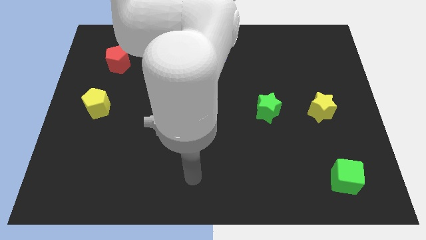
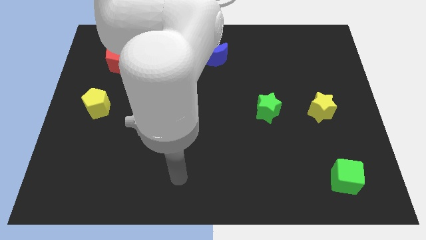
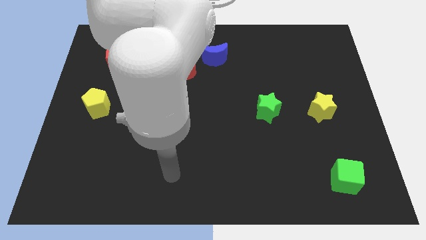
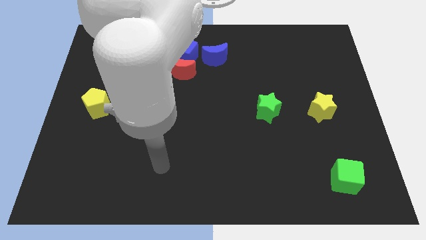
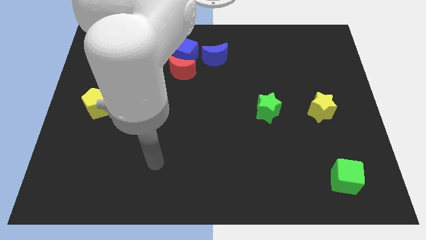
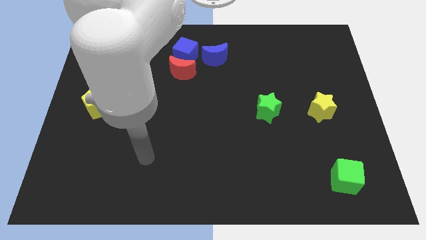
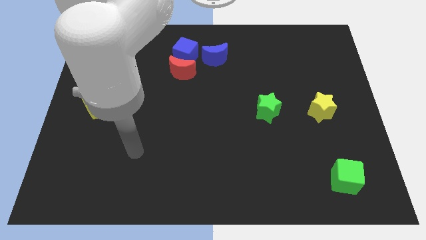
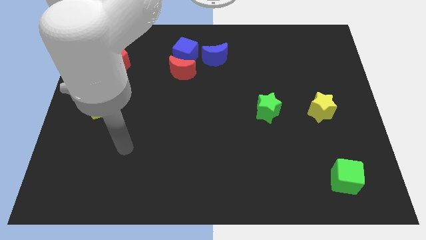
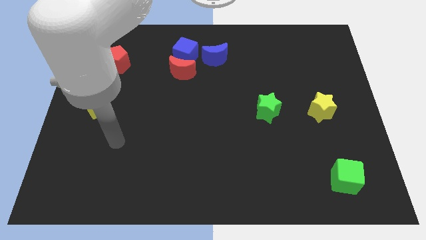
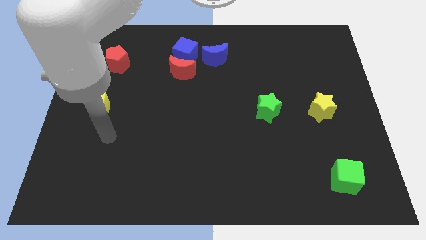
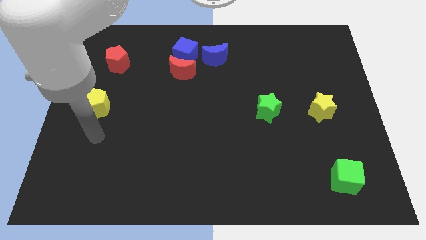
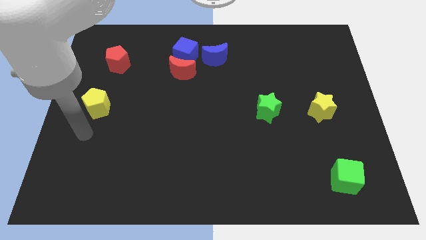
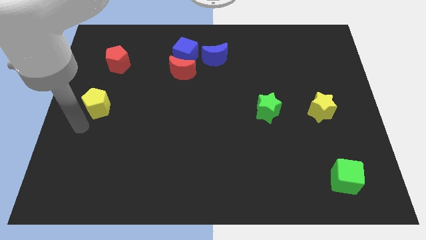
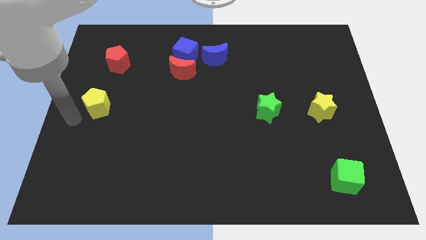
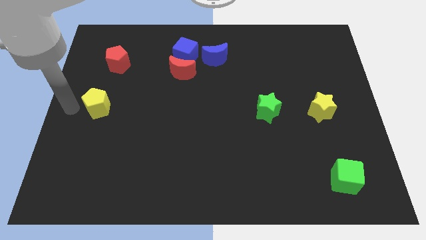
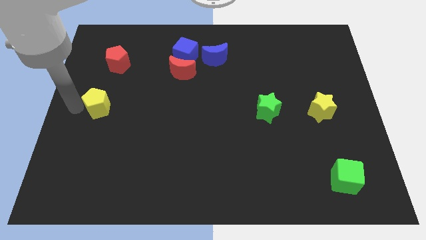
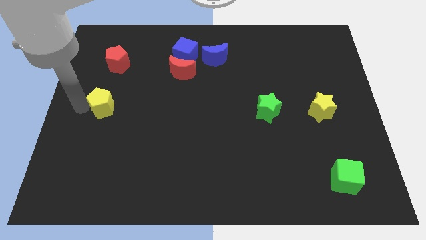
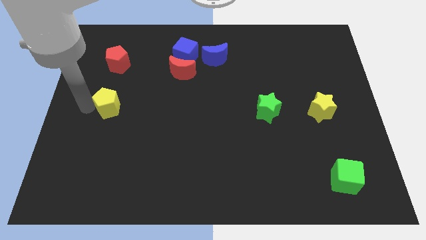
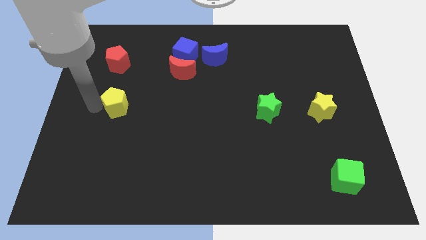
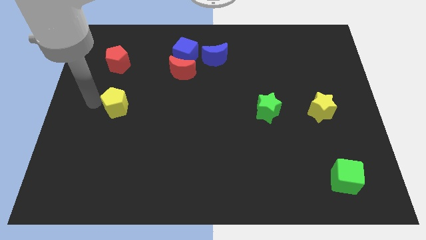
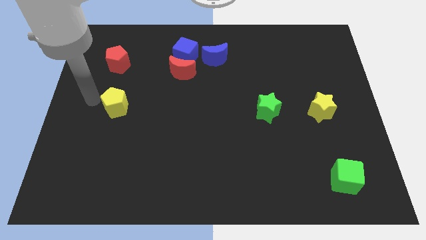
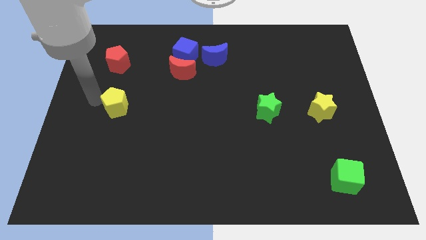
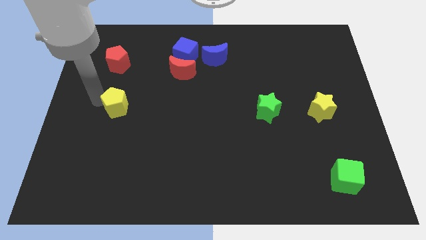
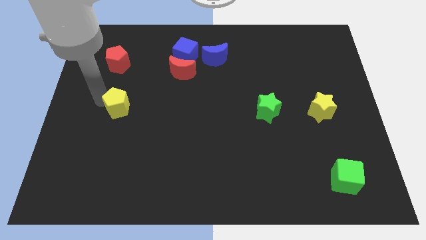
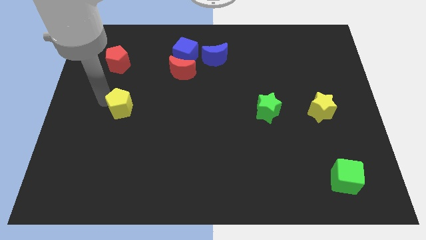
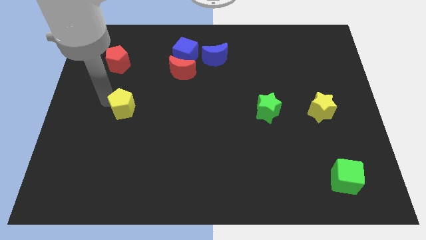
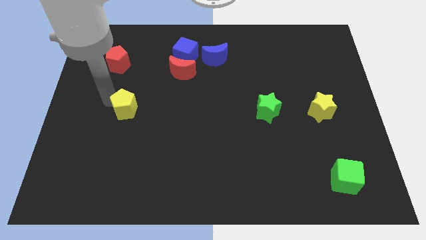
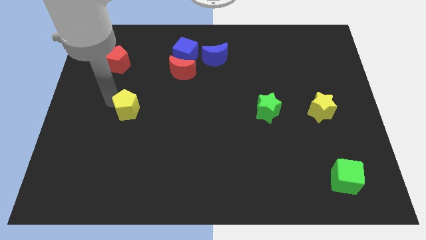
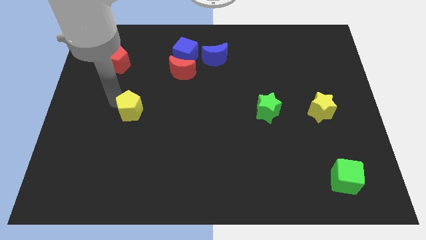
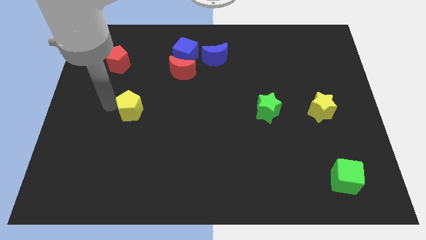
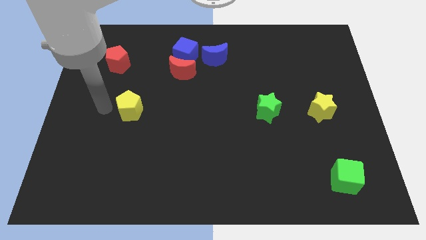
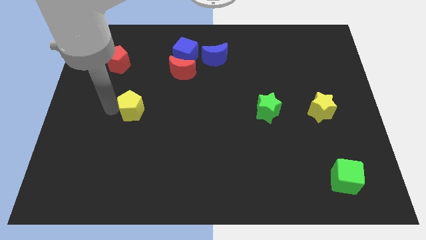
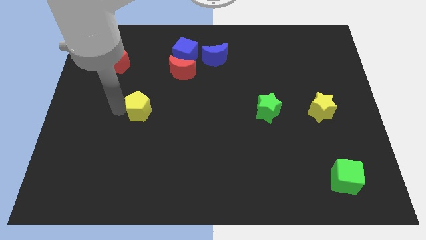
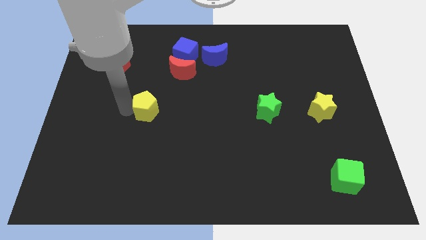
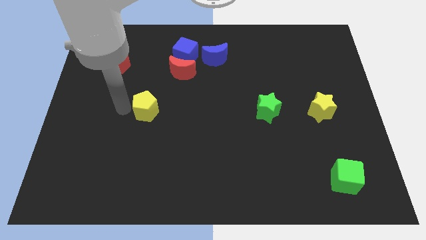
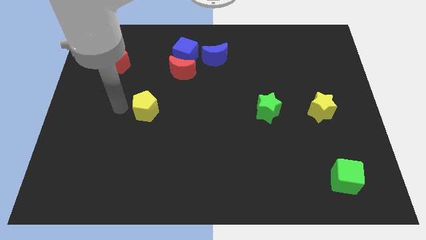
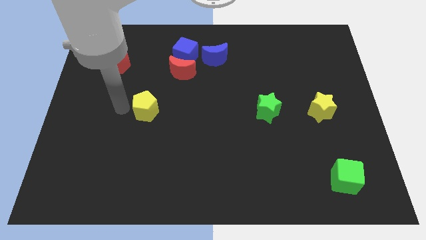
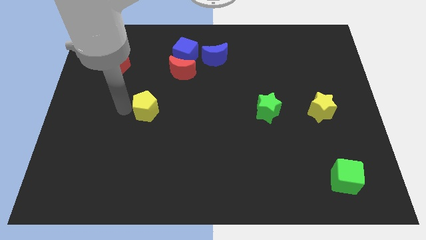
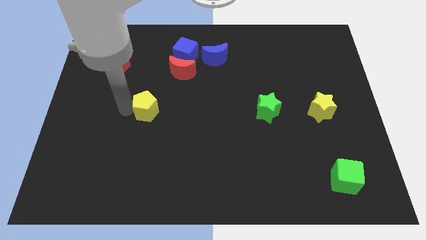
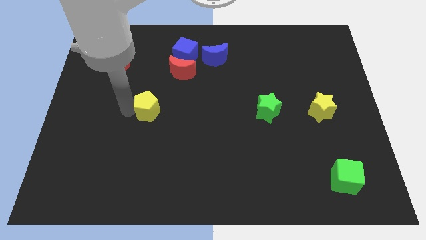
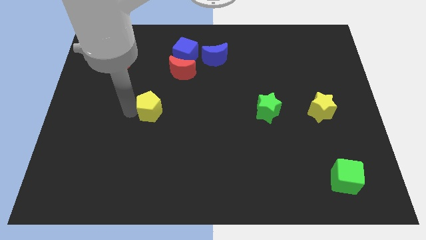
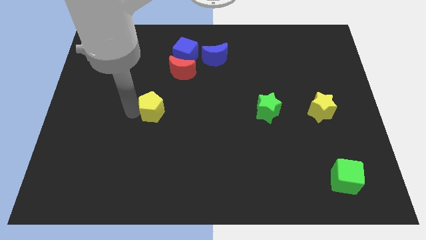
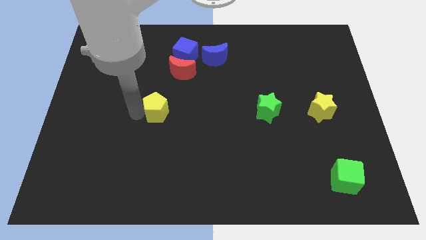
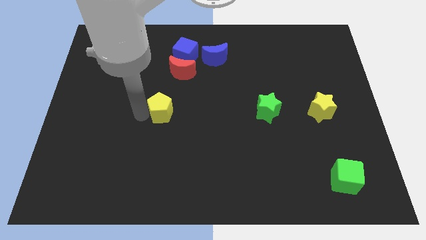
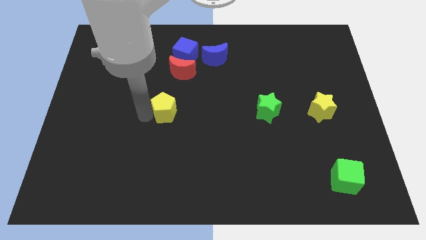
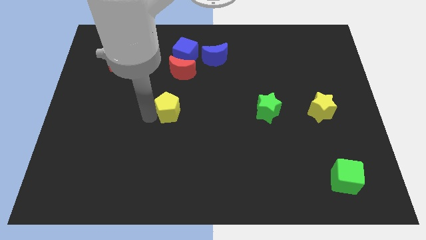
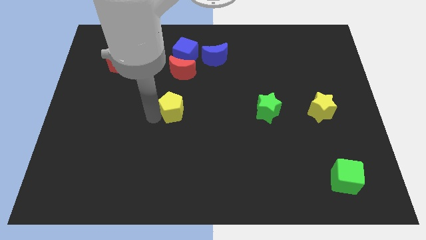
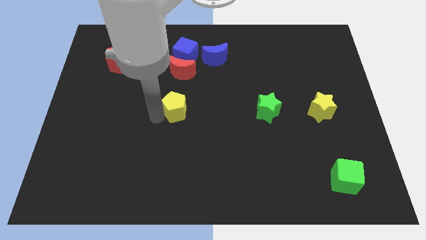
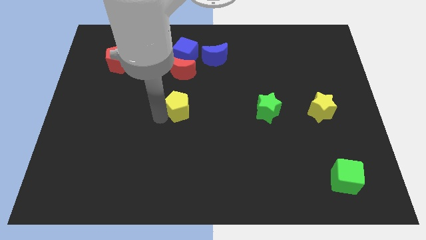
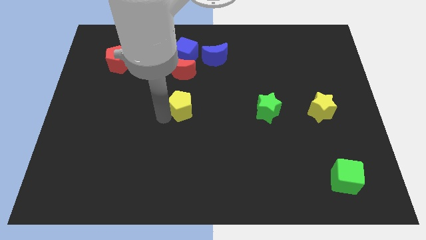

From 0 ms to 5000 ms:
slide the yellow pentagon to the right

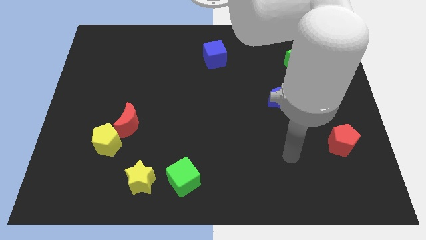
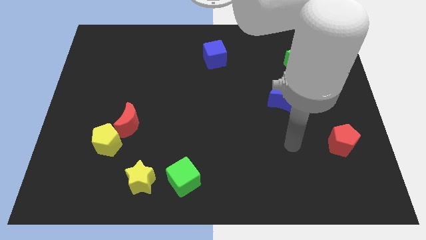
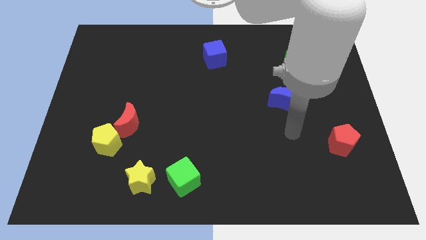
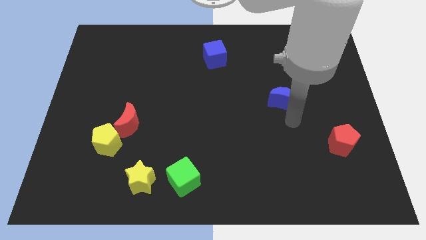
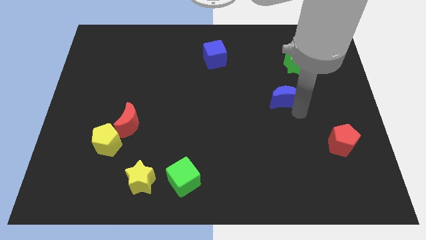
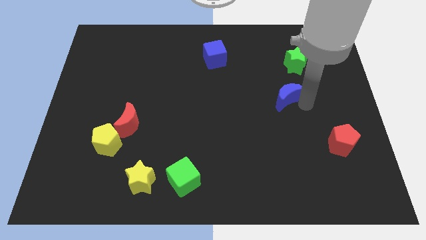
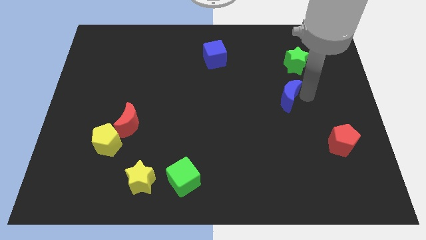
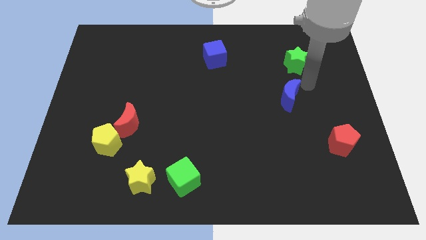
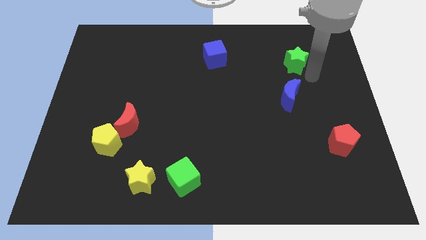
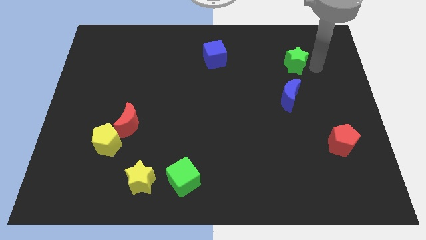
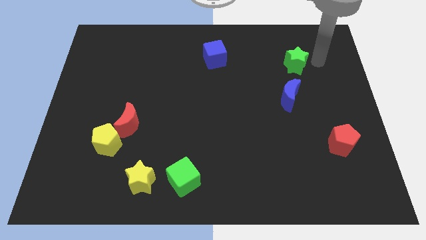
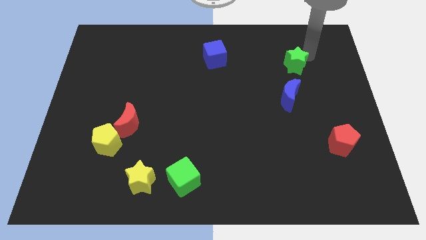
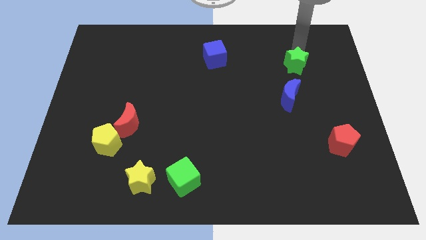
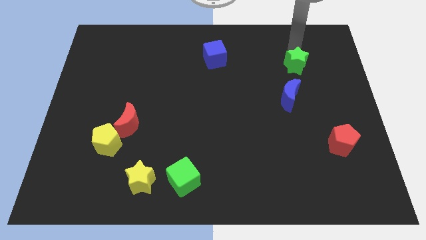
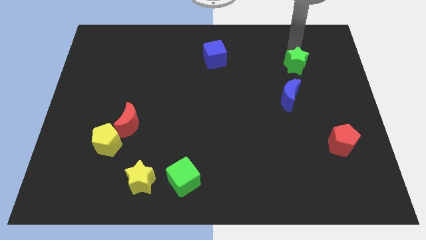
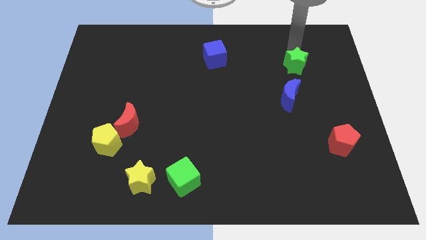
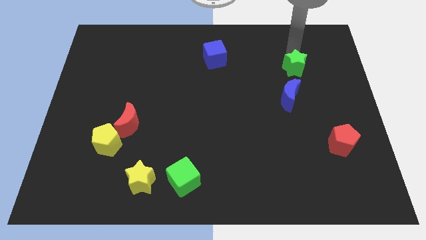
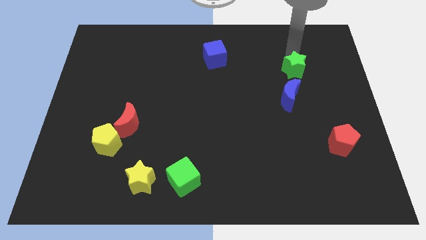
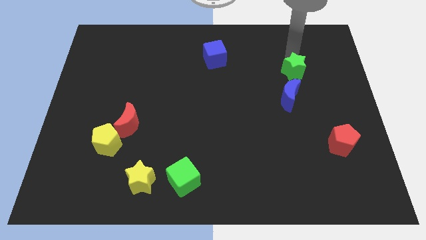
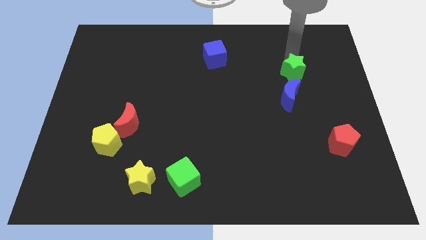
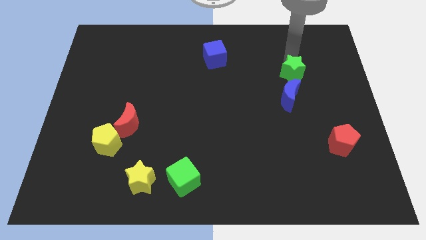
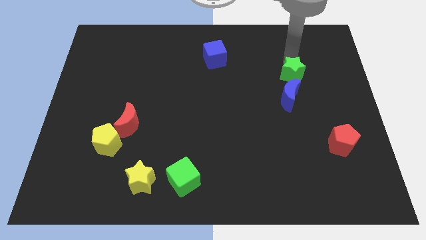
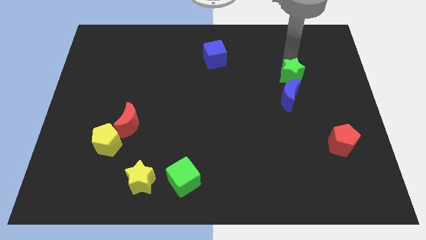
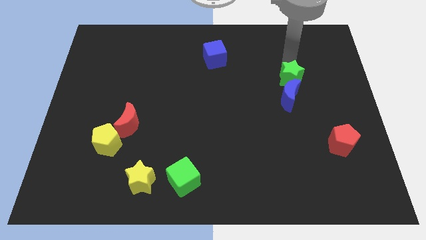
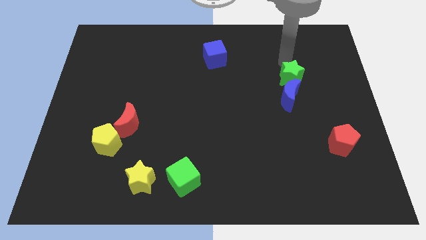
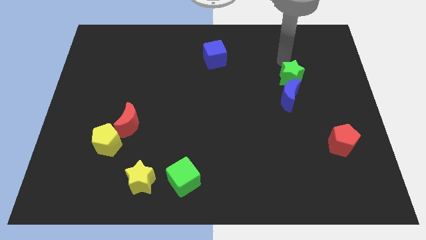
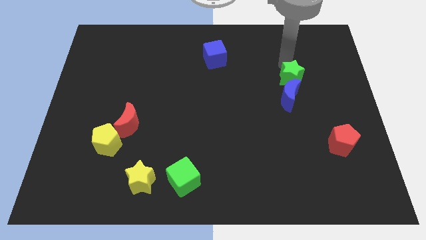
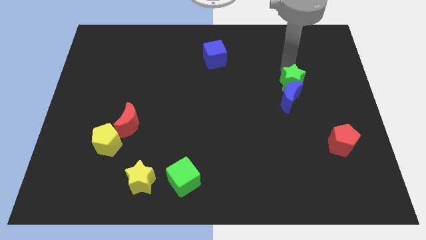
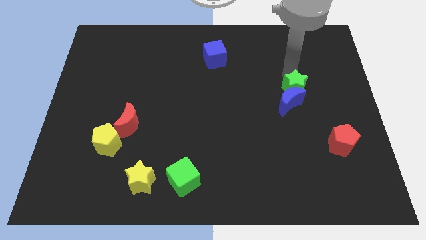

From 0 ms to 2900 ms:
push the green star slightly down

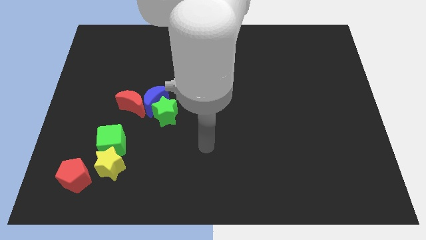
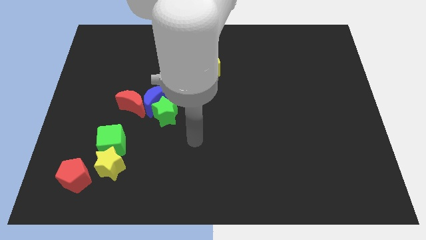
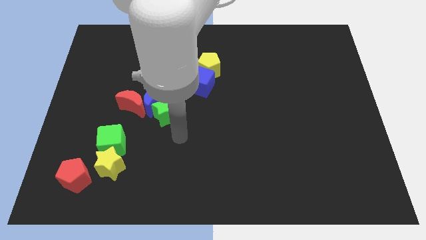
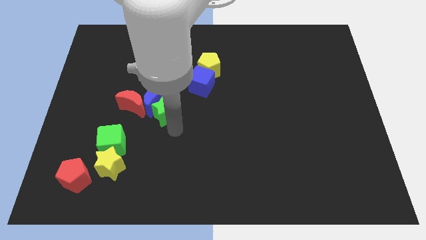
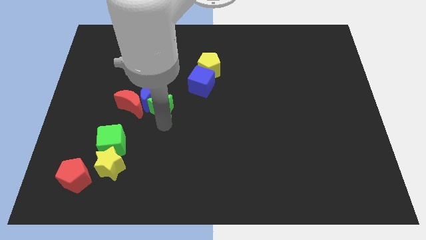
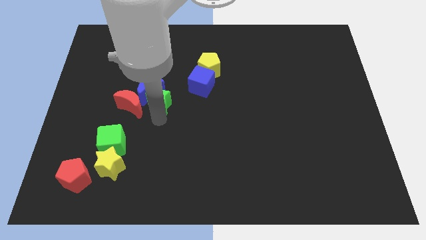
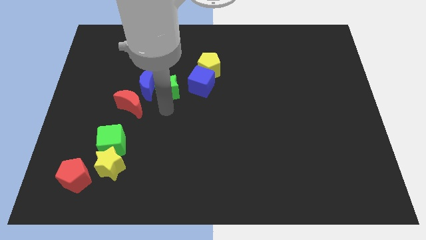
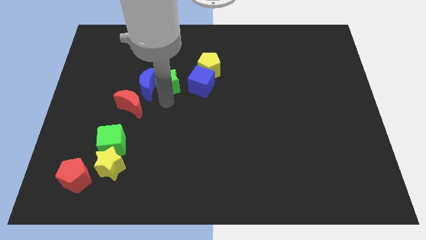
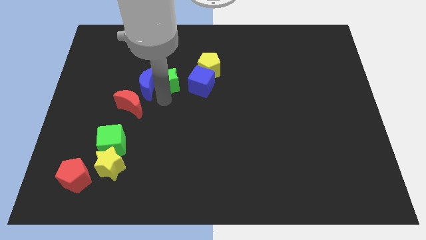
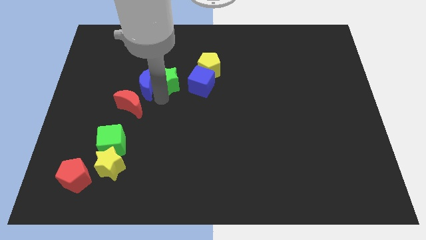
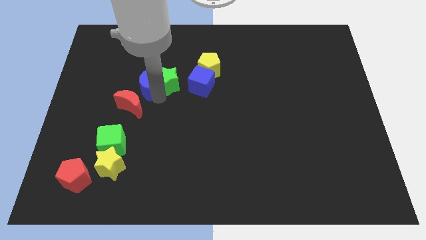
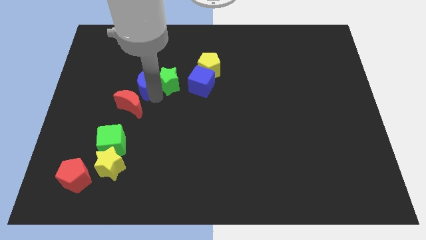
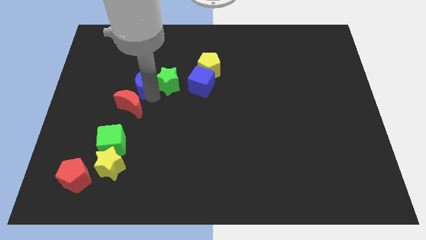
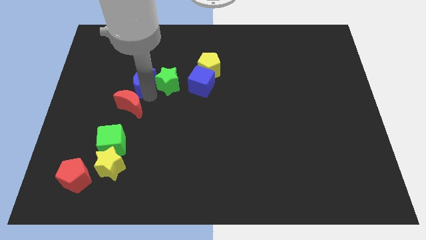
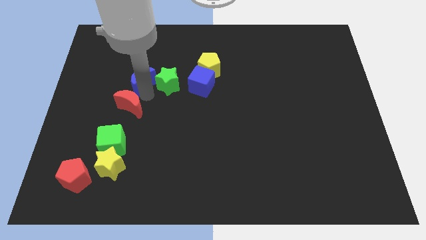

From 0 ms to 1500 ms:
push the blue moon somewhat diagonally up and left
